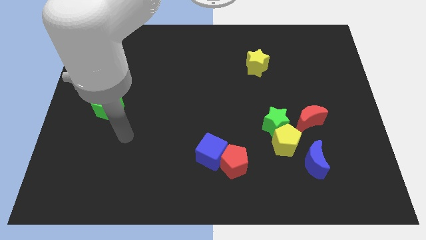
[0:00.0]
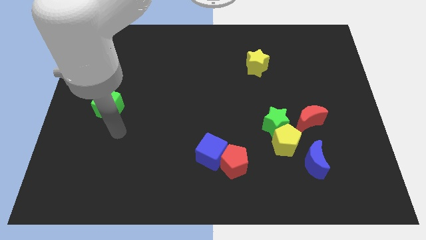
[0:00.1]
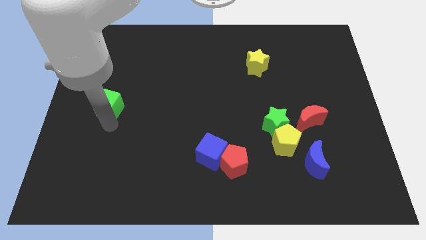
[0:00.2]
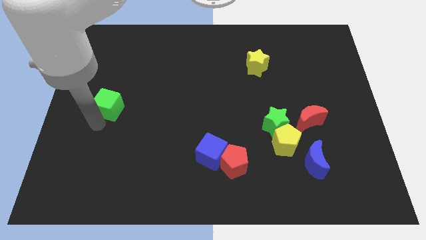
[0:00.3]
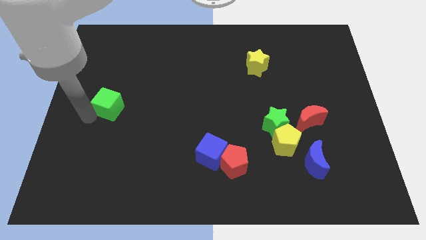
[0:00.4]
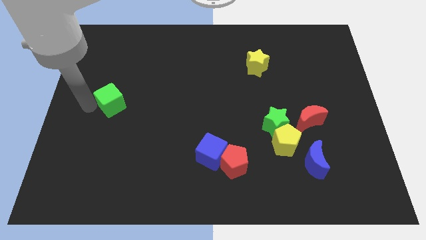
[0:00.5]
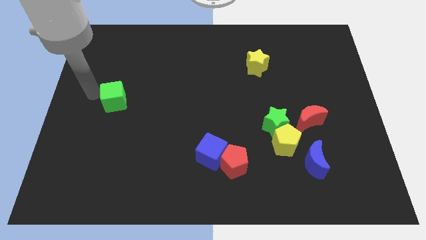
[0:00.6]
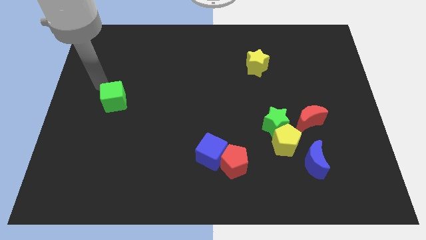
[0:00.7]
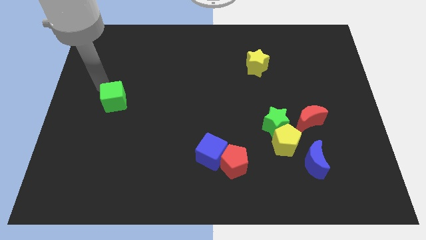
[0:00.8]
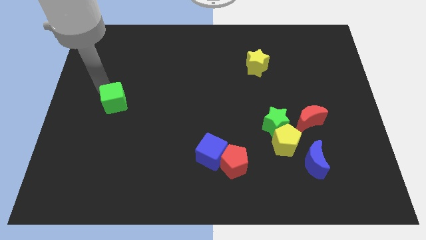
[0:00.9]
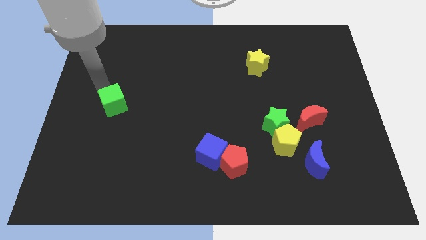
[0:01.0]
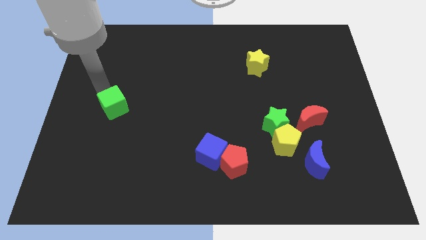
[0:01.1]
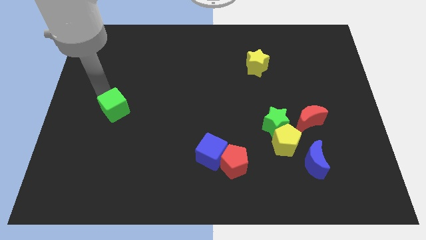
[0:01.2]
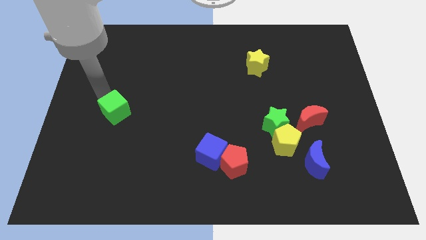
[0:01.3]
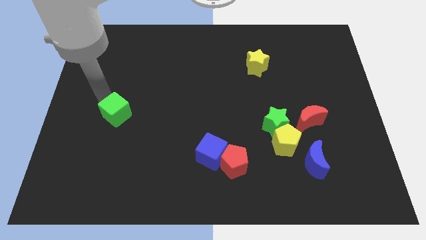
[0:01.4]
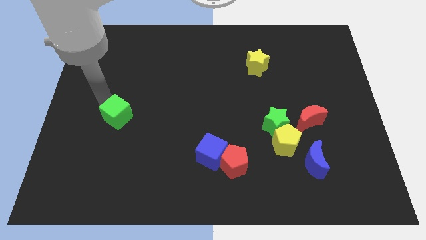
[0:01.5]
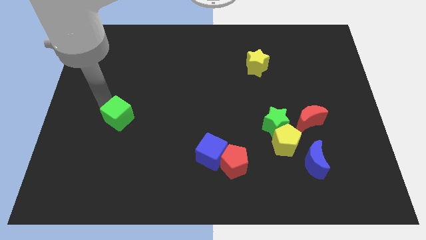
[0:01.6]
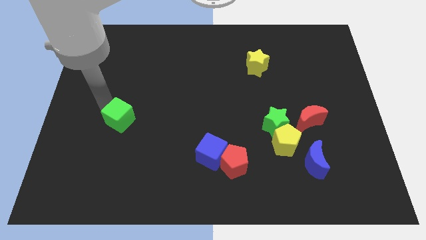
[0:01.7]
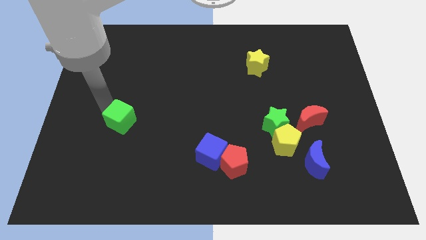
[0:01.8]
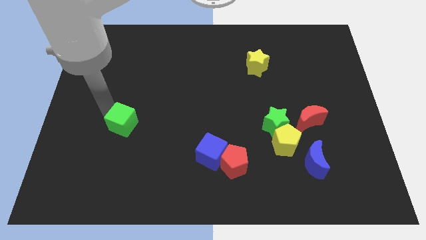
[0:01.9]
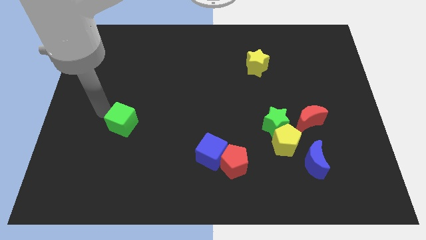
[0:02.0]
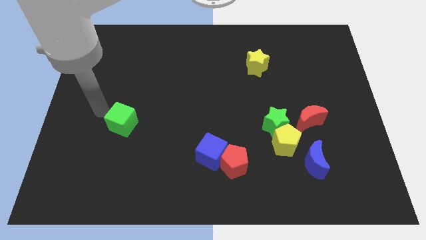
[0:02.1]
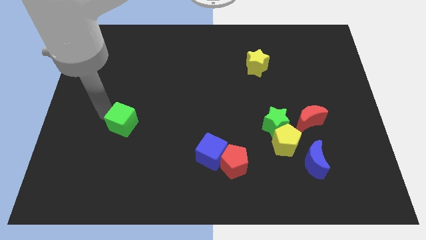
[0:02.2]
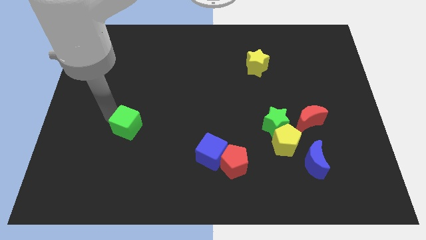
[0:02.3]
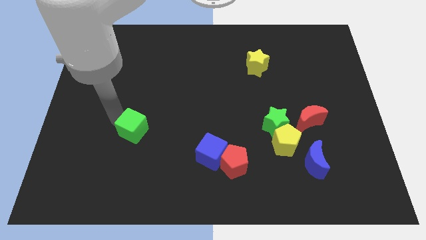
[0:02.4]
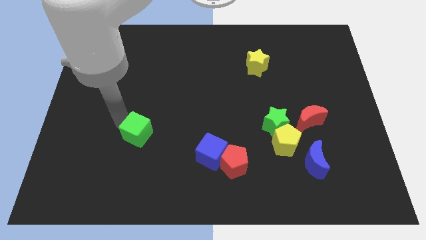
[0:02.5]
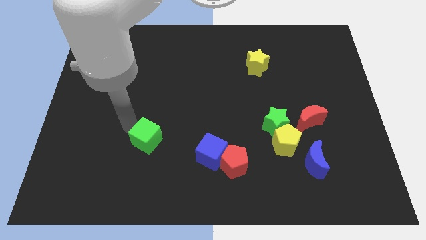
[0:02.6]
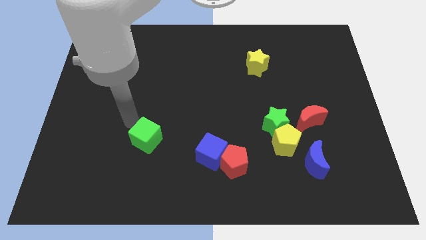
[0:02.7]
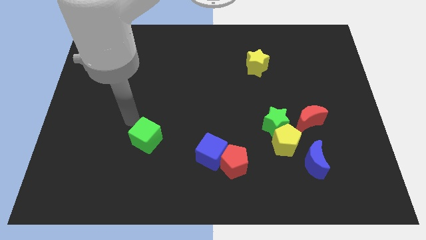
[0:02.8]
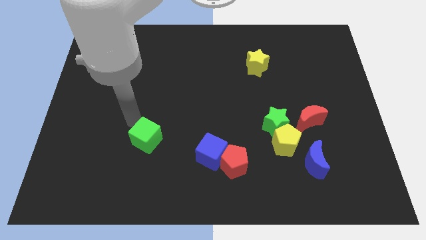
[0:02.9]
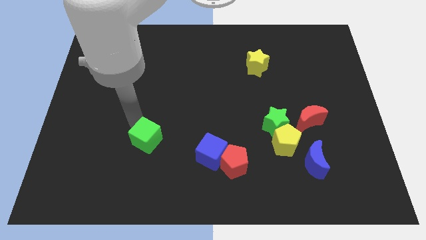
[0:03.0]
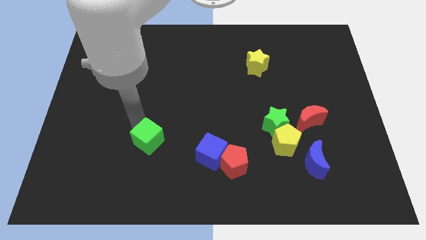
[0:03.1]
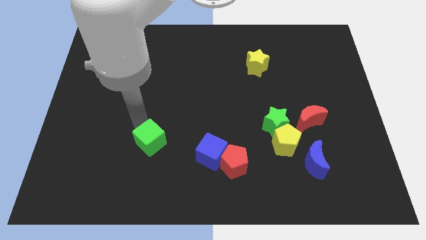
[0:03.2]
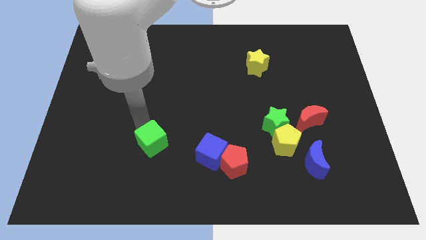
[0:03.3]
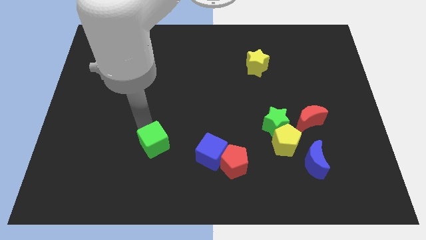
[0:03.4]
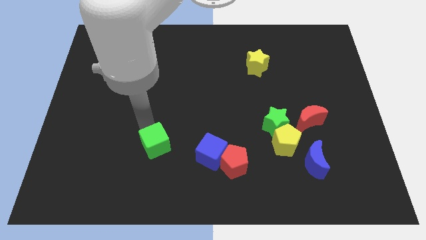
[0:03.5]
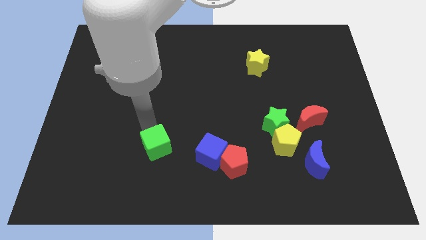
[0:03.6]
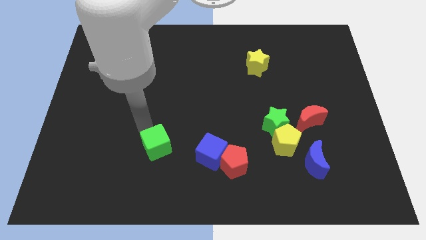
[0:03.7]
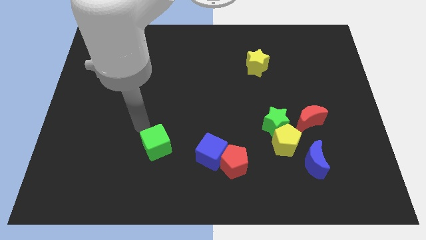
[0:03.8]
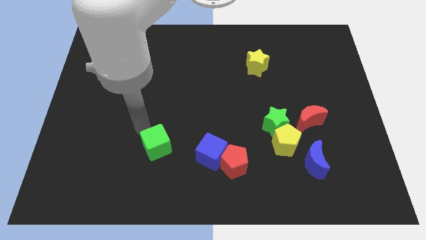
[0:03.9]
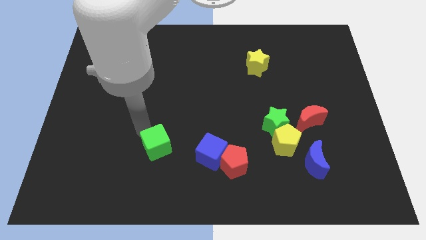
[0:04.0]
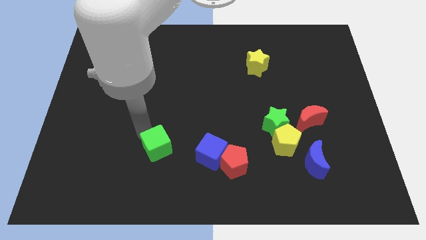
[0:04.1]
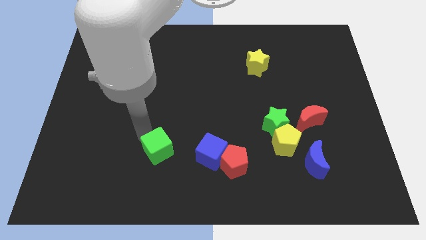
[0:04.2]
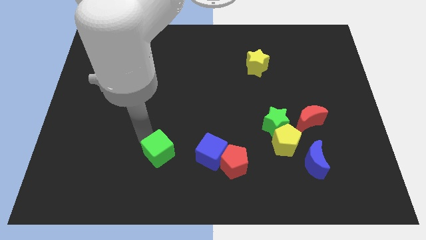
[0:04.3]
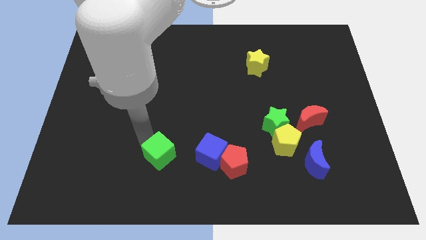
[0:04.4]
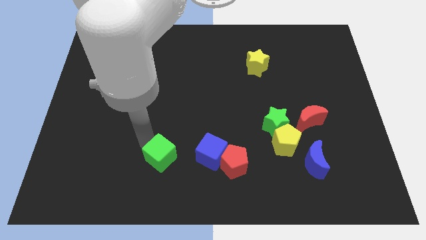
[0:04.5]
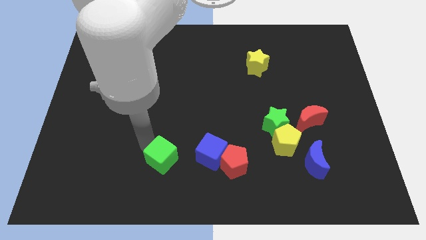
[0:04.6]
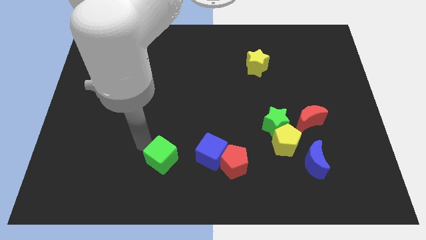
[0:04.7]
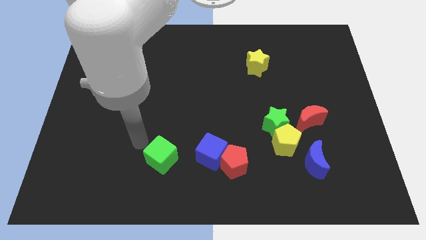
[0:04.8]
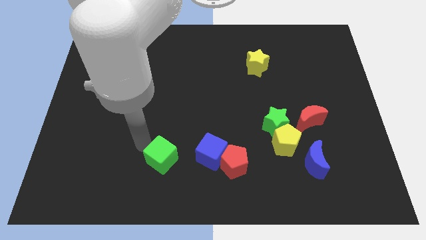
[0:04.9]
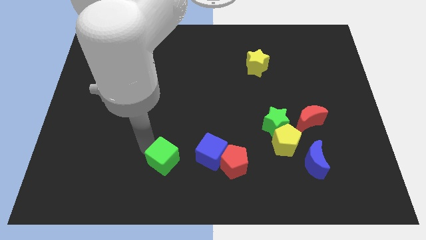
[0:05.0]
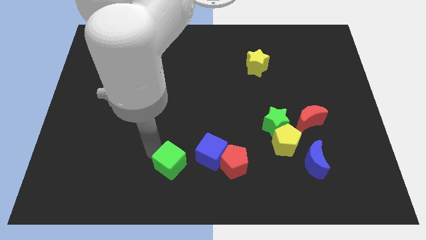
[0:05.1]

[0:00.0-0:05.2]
put the green cube to the bottom left of the blue cube

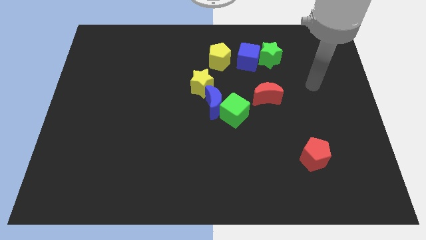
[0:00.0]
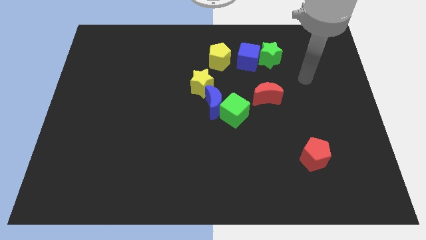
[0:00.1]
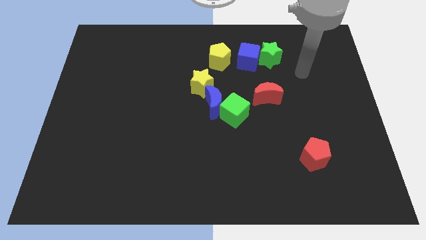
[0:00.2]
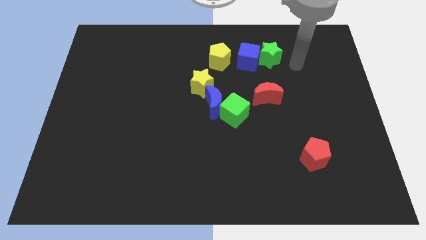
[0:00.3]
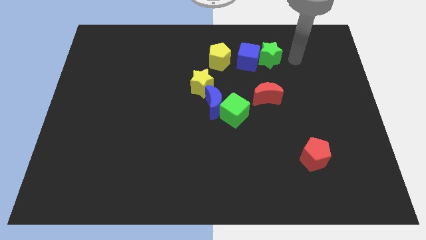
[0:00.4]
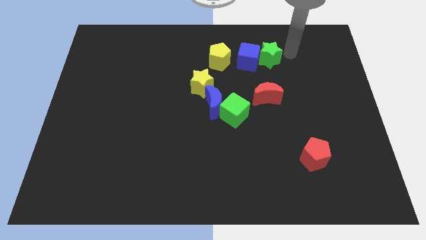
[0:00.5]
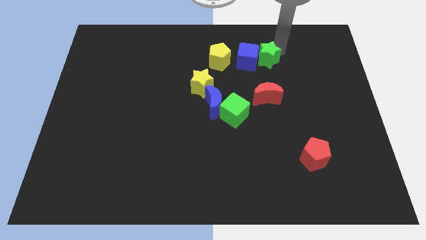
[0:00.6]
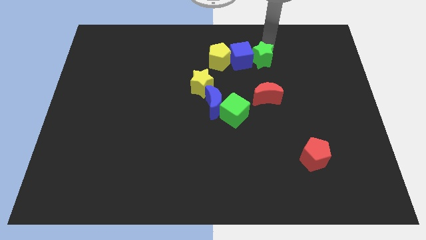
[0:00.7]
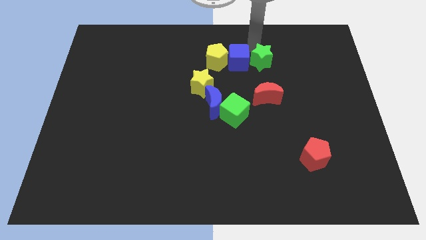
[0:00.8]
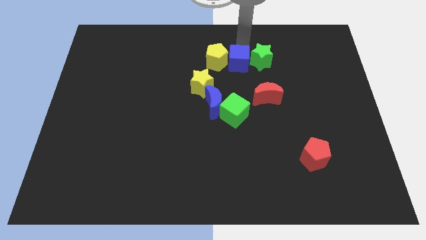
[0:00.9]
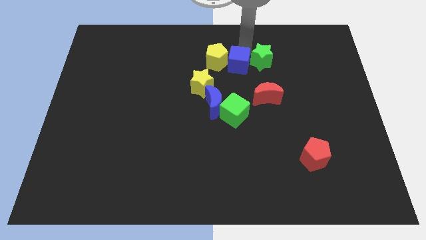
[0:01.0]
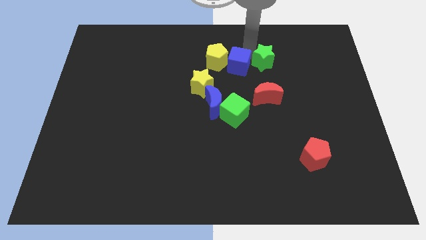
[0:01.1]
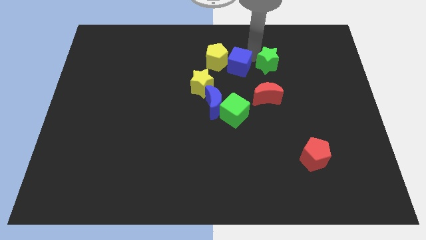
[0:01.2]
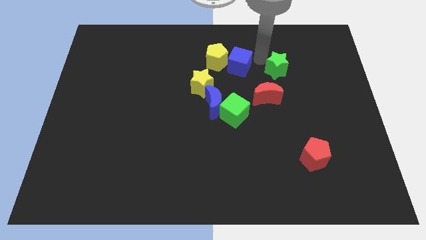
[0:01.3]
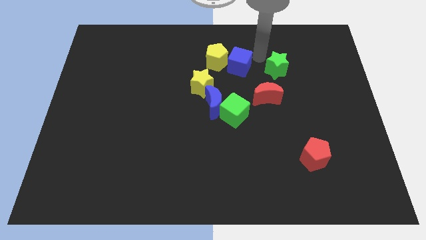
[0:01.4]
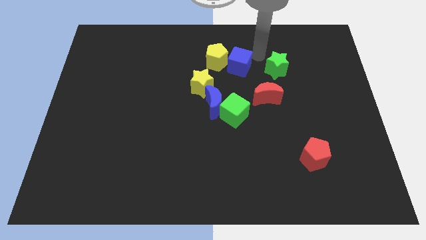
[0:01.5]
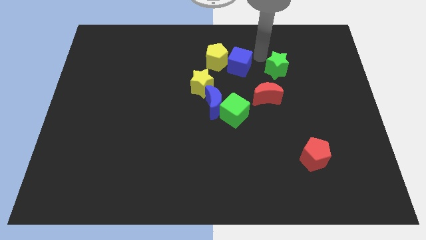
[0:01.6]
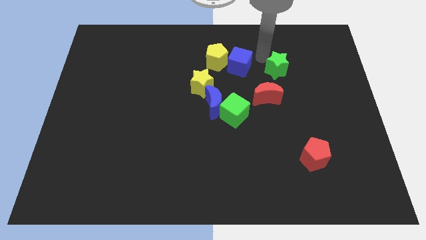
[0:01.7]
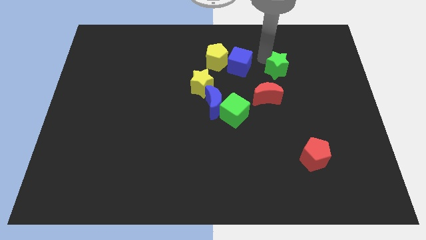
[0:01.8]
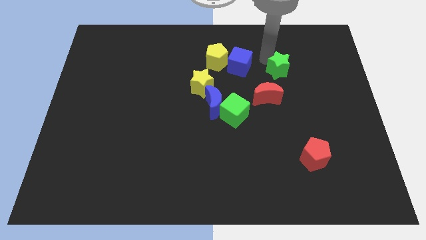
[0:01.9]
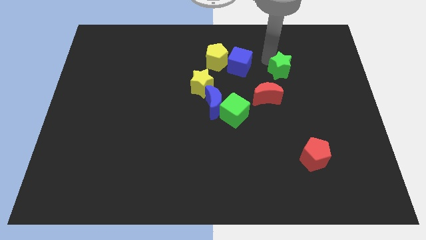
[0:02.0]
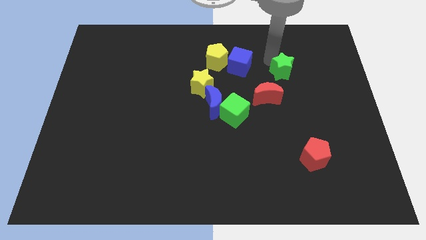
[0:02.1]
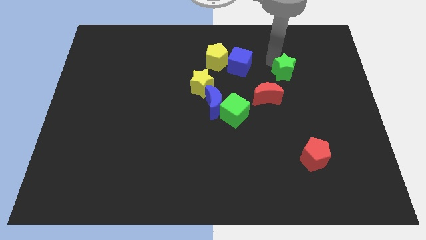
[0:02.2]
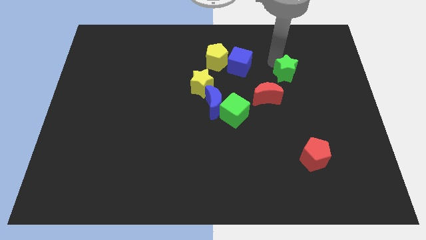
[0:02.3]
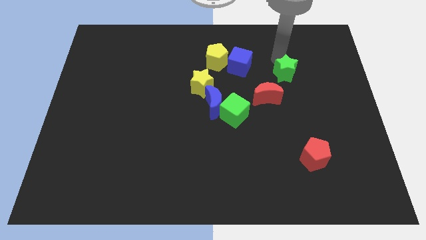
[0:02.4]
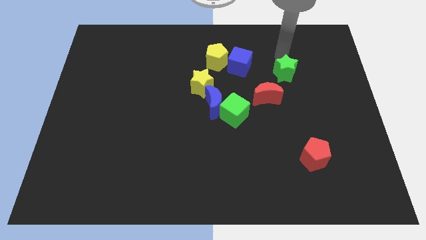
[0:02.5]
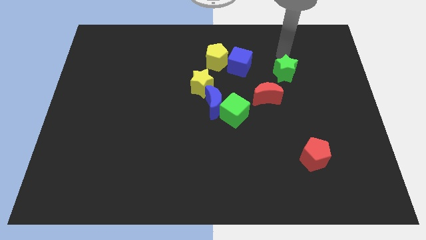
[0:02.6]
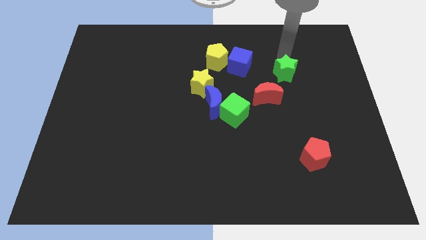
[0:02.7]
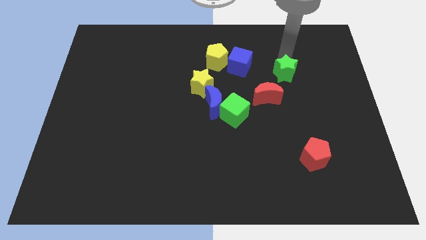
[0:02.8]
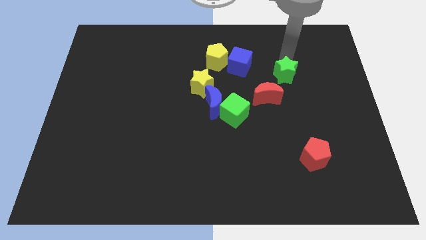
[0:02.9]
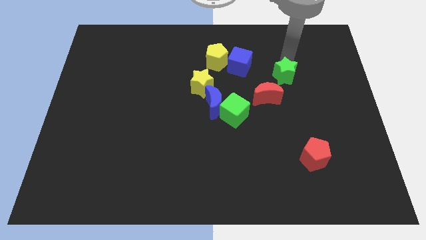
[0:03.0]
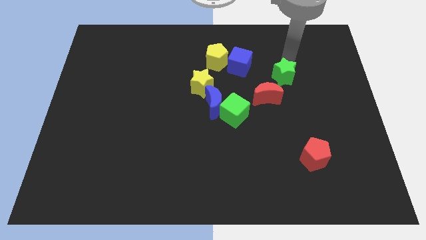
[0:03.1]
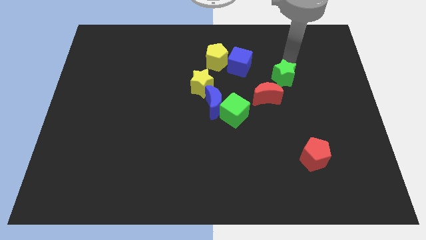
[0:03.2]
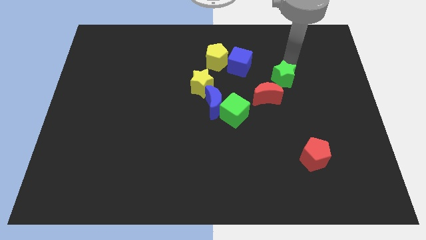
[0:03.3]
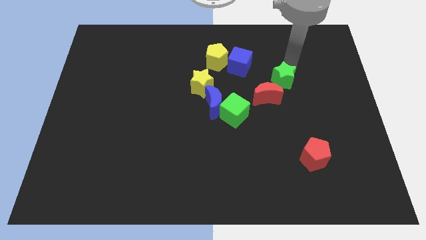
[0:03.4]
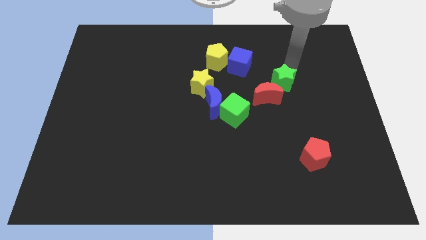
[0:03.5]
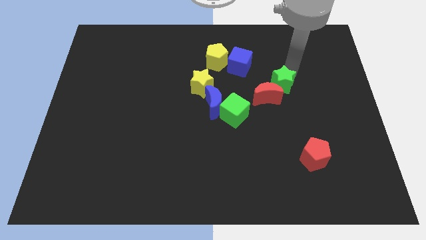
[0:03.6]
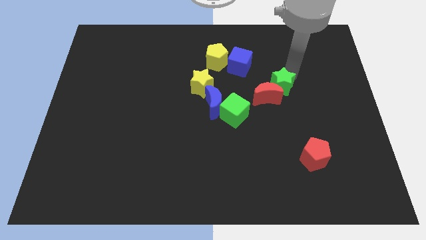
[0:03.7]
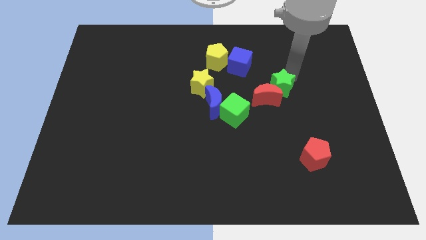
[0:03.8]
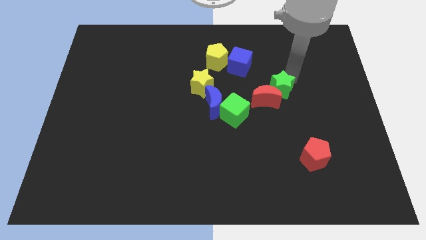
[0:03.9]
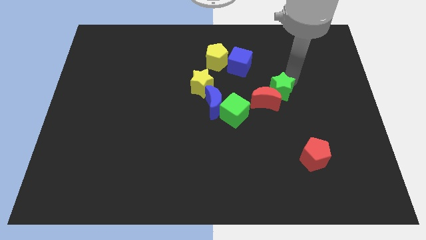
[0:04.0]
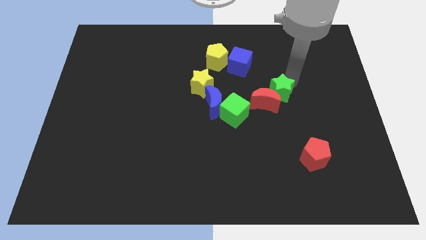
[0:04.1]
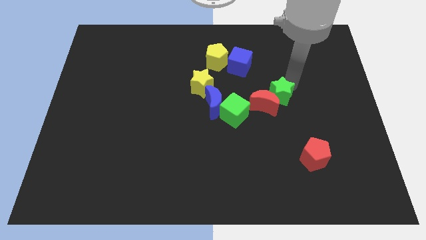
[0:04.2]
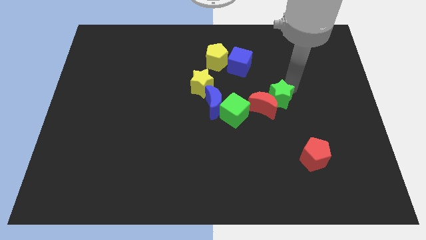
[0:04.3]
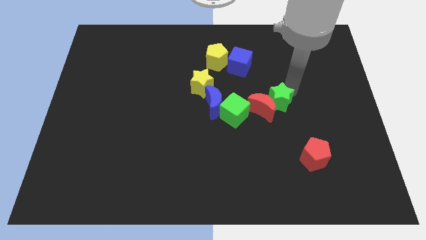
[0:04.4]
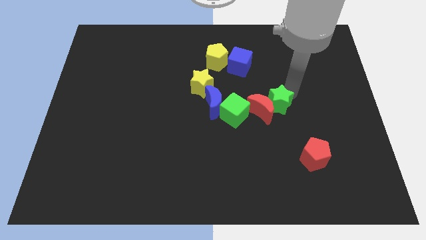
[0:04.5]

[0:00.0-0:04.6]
push the green star diagonally down and to the right of the red moon
